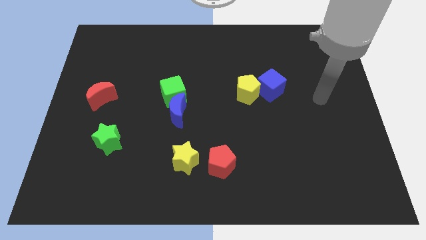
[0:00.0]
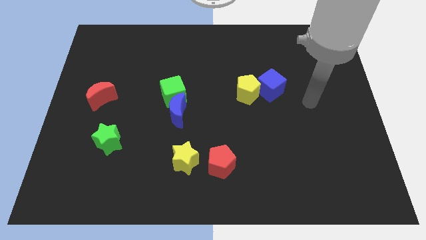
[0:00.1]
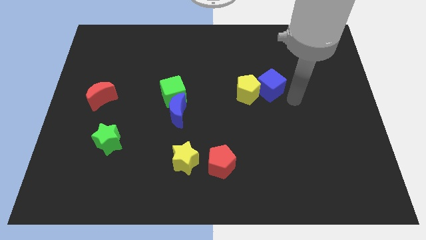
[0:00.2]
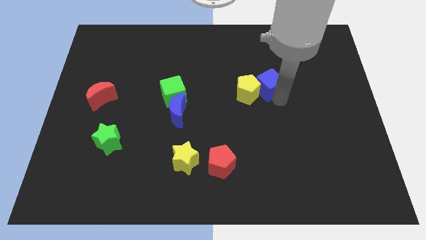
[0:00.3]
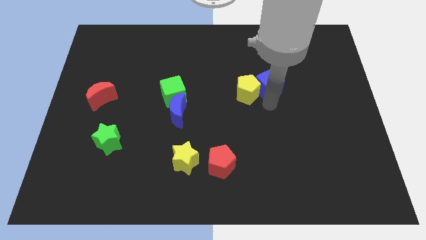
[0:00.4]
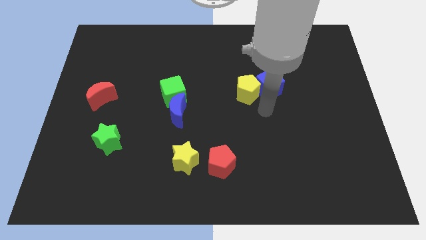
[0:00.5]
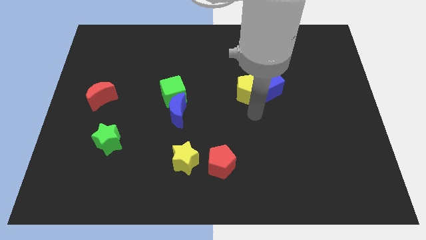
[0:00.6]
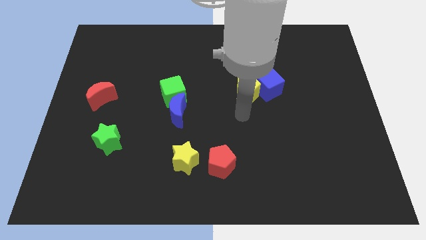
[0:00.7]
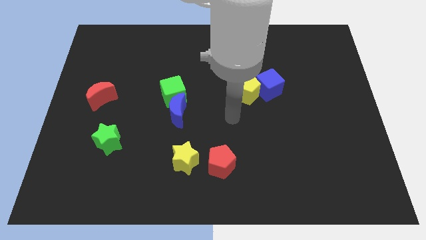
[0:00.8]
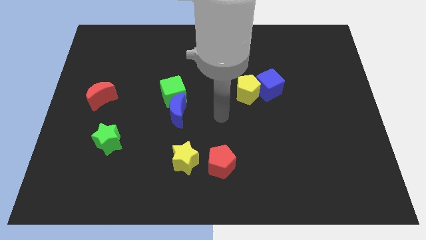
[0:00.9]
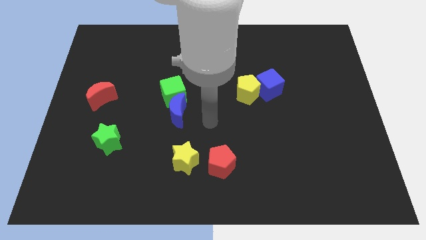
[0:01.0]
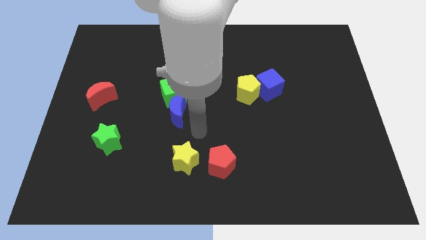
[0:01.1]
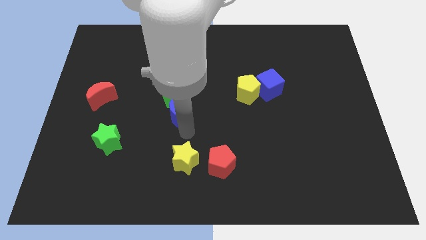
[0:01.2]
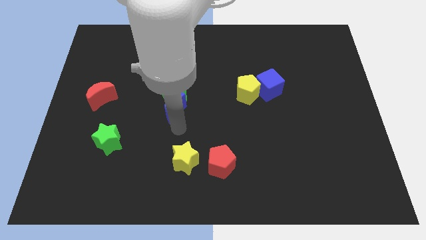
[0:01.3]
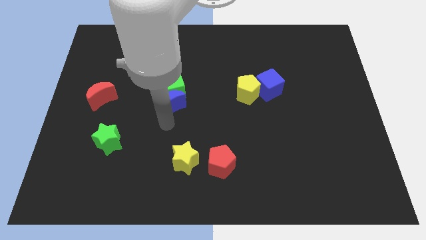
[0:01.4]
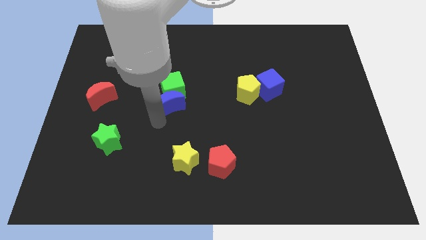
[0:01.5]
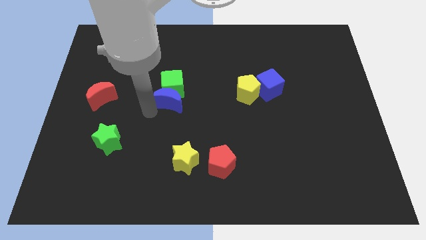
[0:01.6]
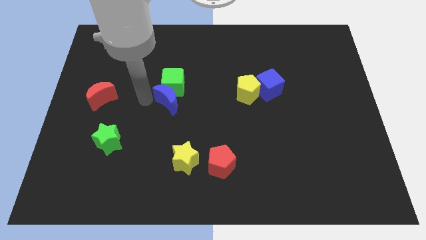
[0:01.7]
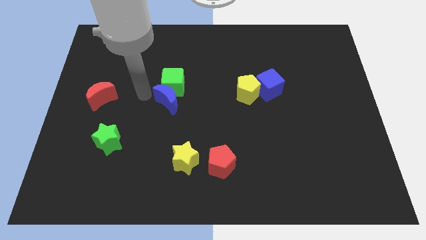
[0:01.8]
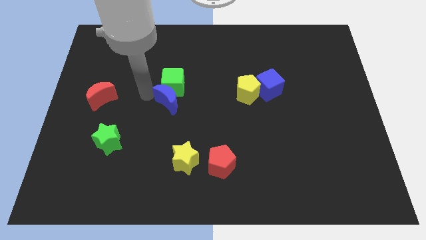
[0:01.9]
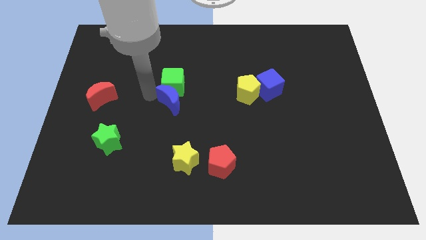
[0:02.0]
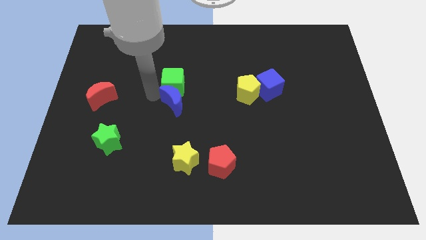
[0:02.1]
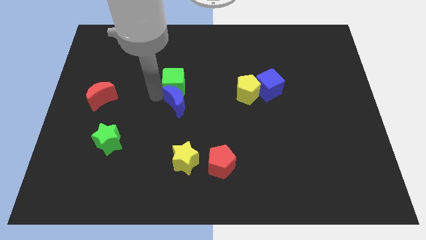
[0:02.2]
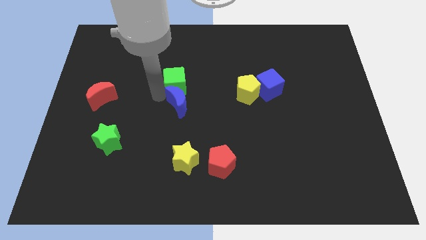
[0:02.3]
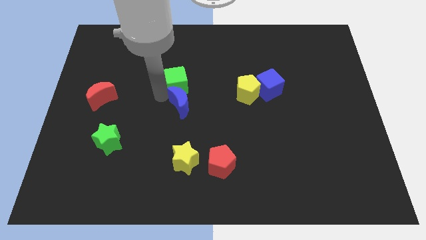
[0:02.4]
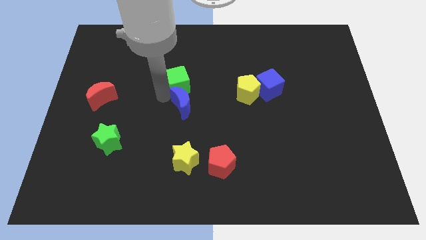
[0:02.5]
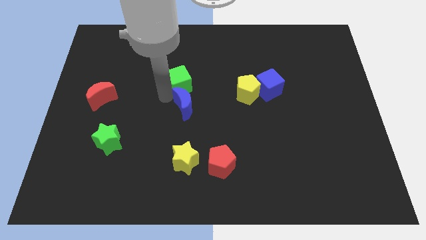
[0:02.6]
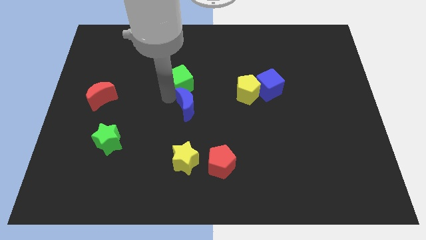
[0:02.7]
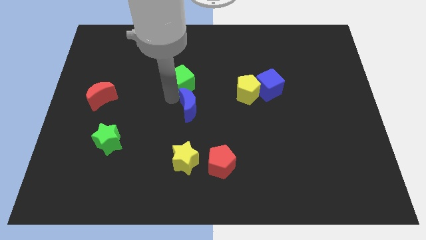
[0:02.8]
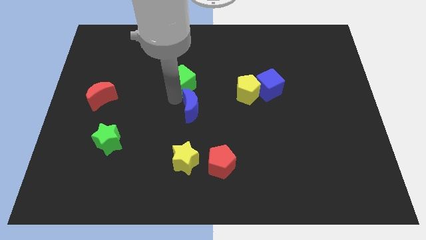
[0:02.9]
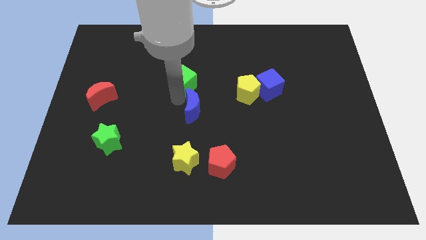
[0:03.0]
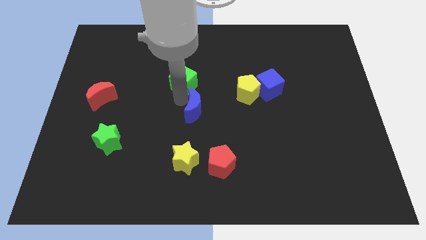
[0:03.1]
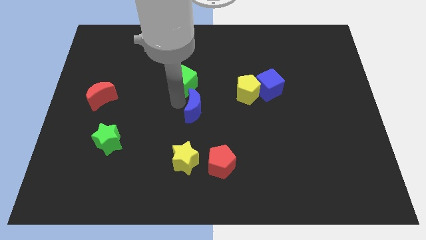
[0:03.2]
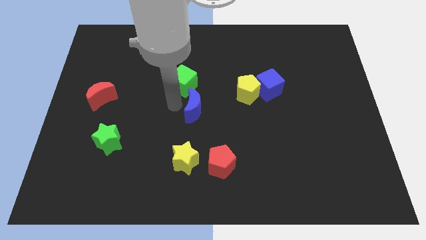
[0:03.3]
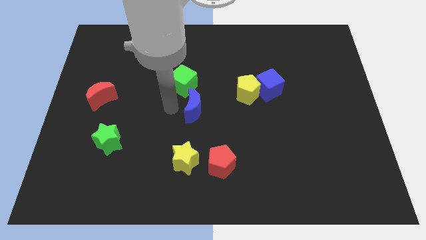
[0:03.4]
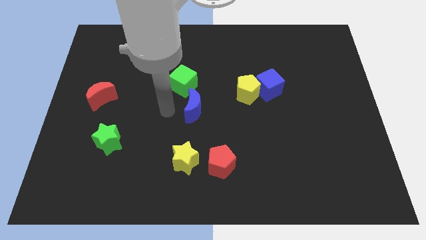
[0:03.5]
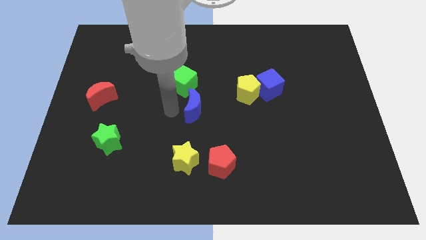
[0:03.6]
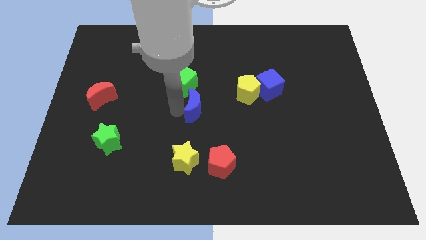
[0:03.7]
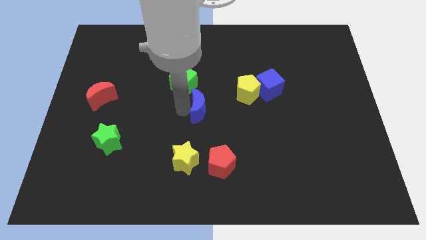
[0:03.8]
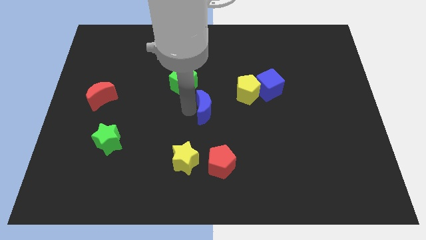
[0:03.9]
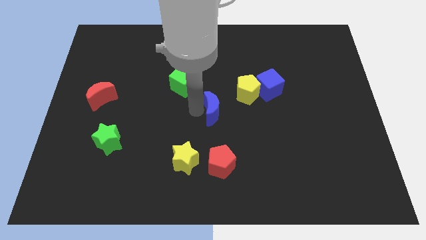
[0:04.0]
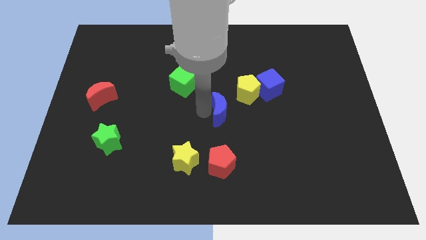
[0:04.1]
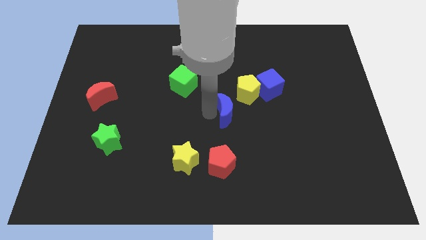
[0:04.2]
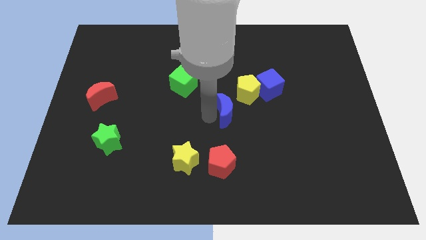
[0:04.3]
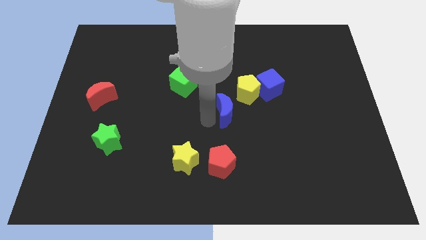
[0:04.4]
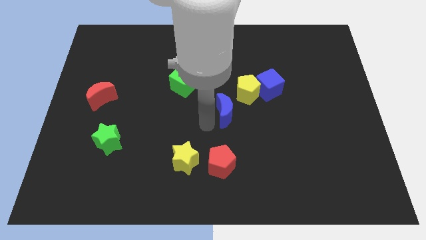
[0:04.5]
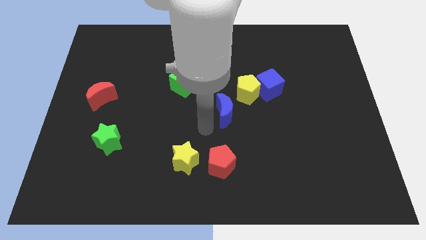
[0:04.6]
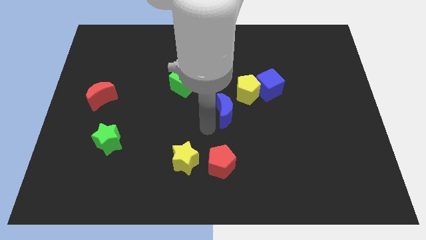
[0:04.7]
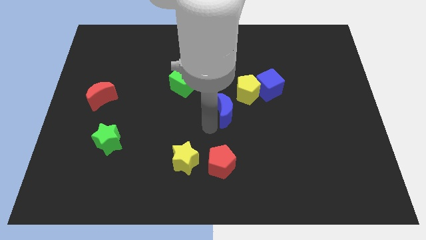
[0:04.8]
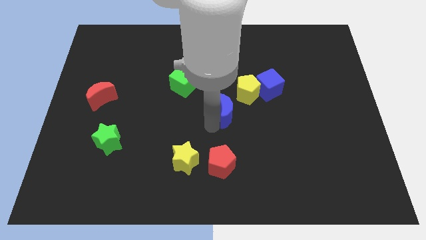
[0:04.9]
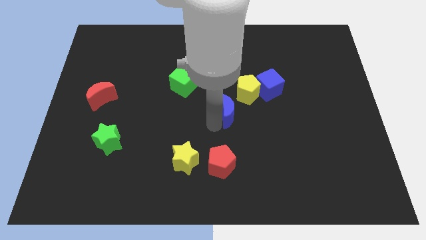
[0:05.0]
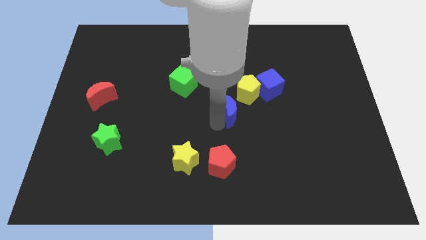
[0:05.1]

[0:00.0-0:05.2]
slide the blue moon to the bottom left side of the blue cube

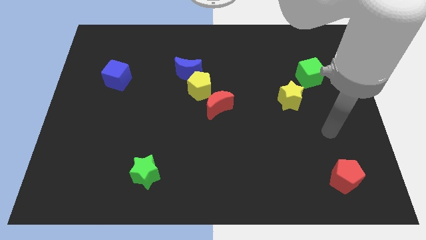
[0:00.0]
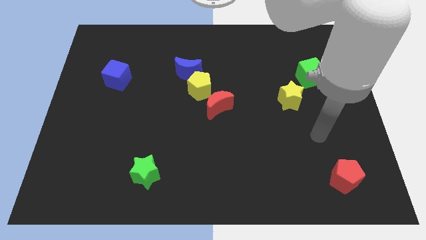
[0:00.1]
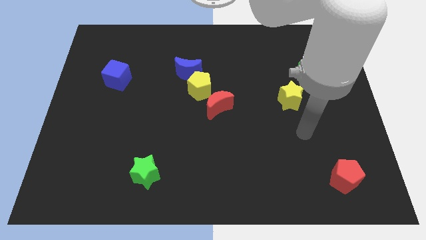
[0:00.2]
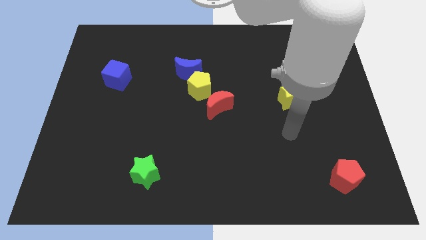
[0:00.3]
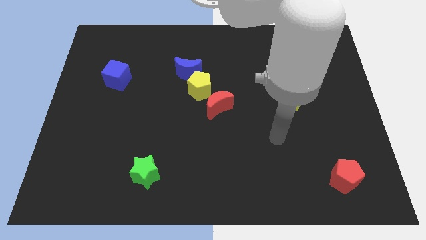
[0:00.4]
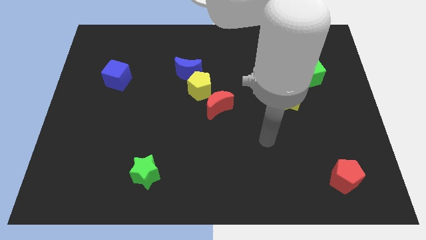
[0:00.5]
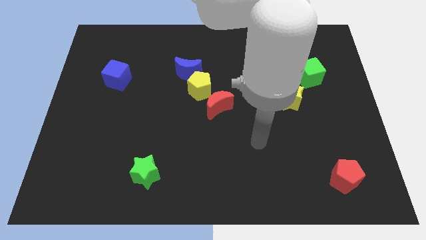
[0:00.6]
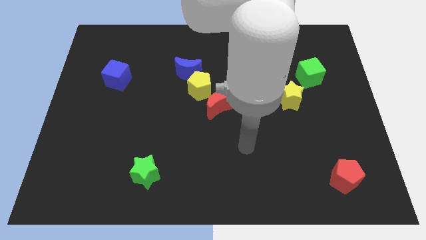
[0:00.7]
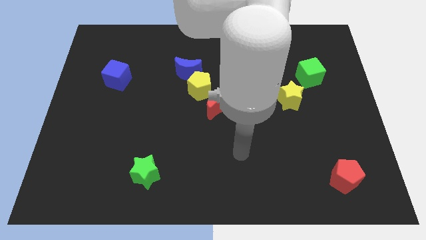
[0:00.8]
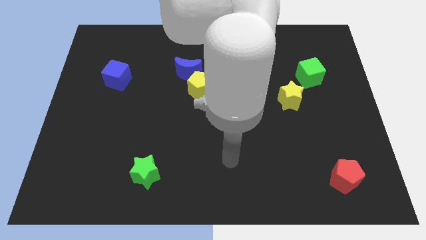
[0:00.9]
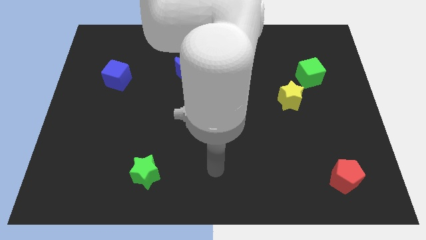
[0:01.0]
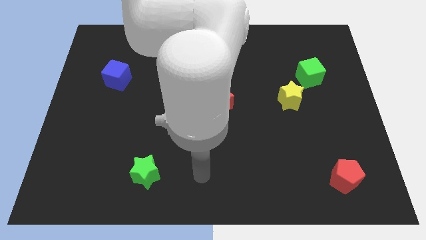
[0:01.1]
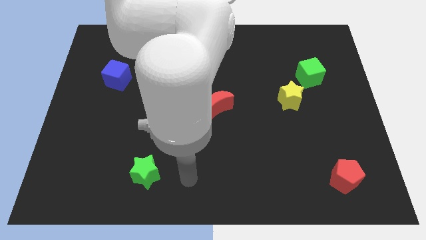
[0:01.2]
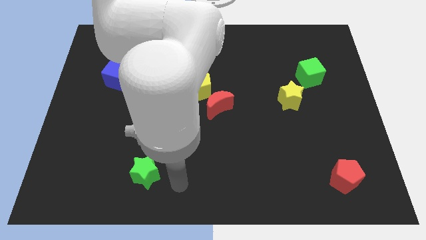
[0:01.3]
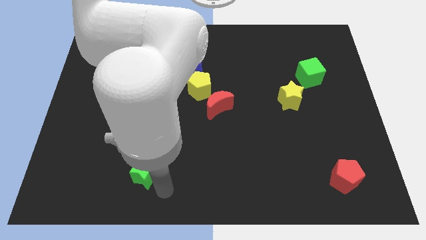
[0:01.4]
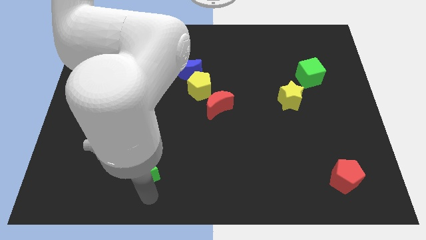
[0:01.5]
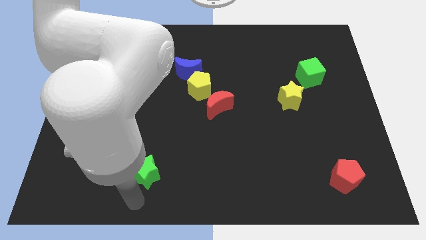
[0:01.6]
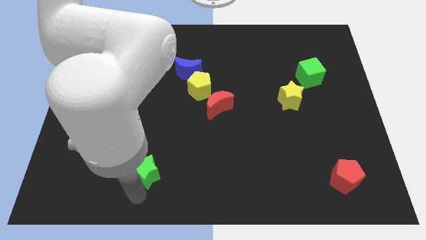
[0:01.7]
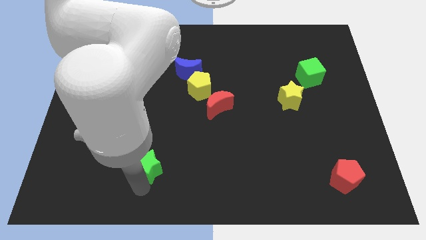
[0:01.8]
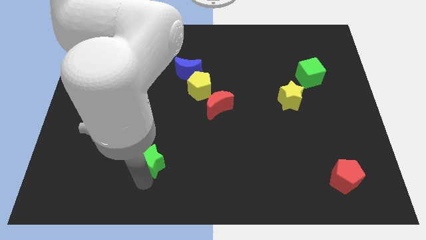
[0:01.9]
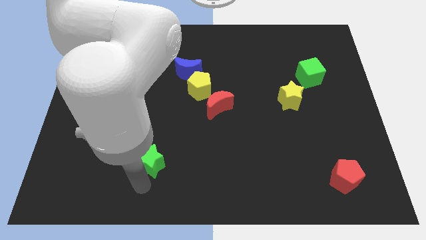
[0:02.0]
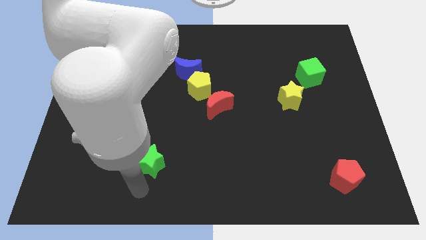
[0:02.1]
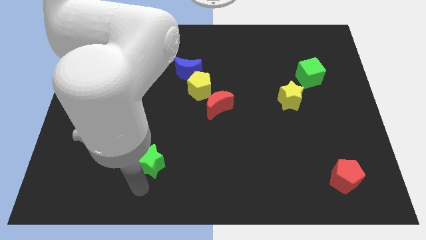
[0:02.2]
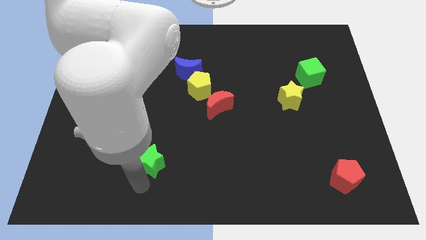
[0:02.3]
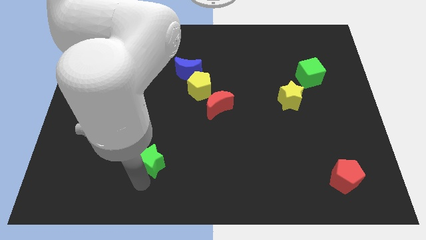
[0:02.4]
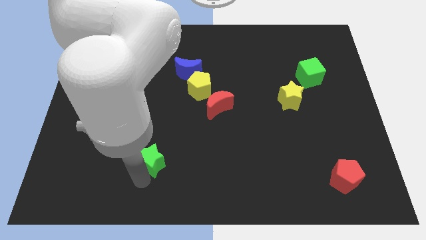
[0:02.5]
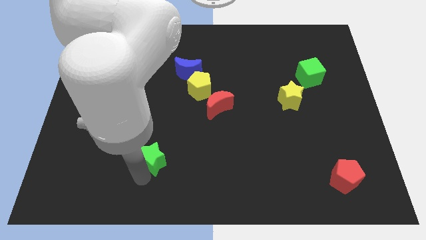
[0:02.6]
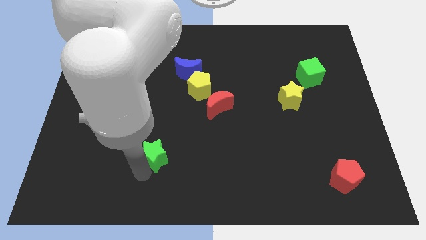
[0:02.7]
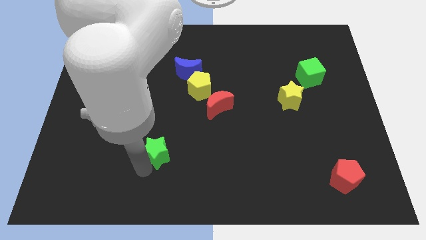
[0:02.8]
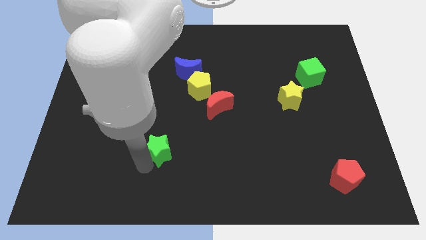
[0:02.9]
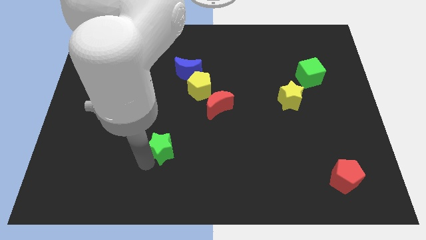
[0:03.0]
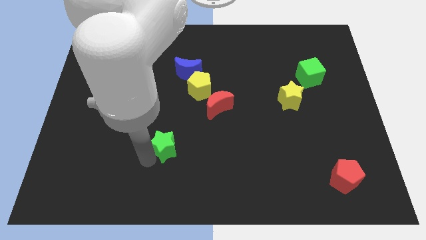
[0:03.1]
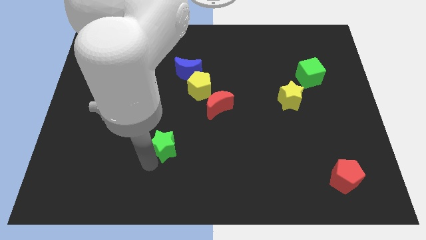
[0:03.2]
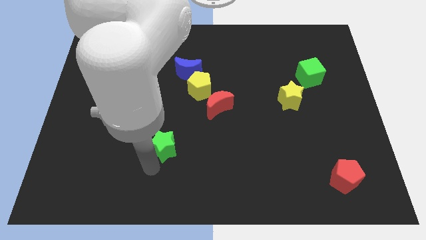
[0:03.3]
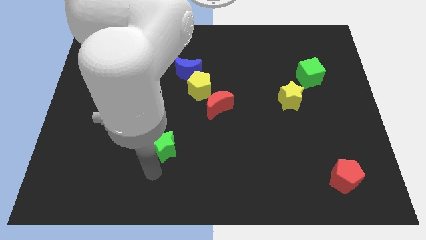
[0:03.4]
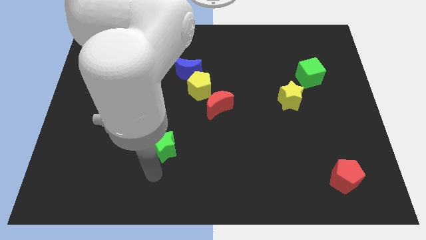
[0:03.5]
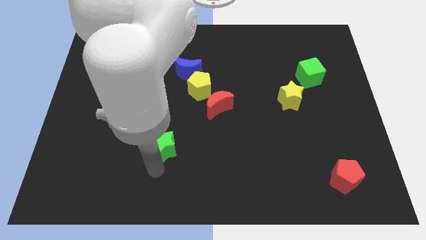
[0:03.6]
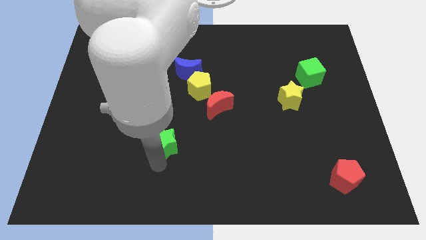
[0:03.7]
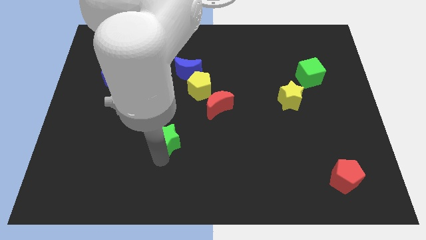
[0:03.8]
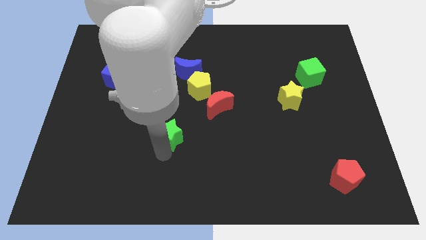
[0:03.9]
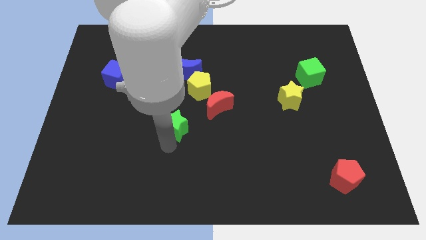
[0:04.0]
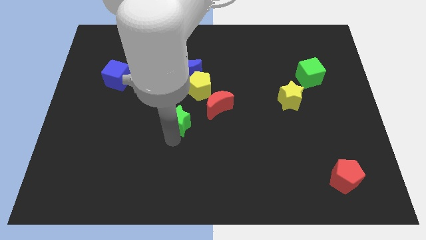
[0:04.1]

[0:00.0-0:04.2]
put the green star to the bottom left of the yellow pentagon
